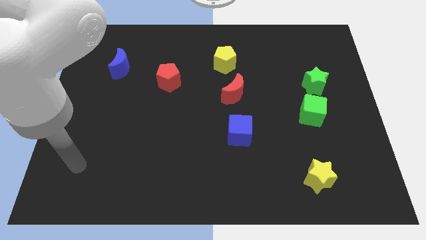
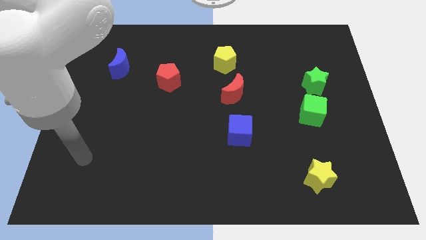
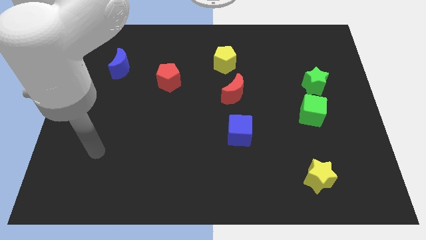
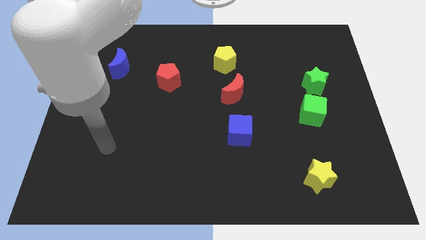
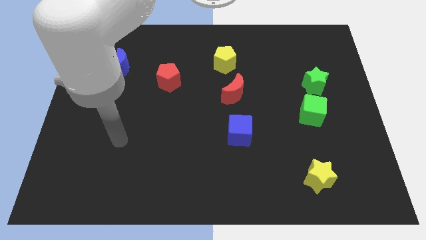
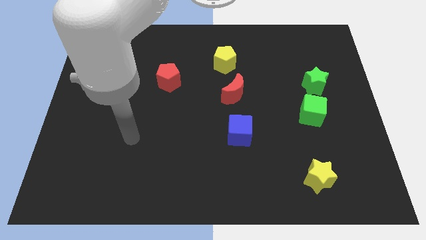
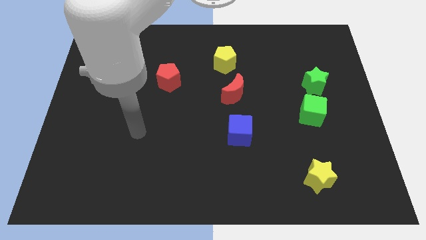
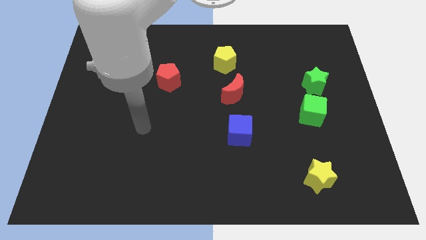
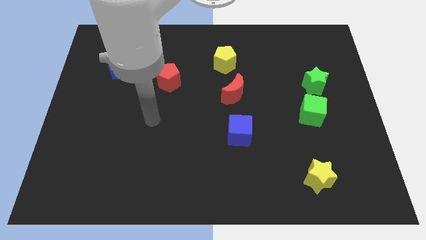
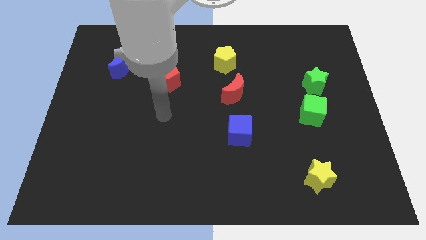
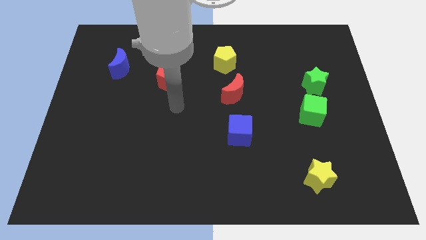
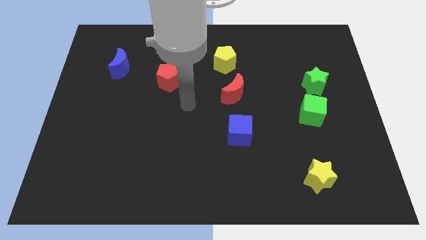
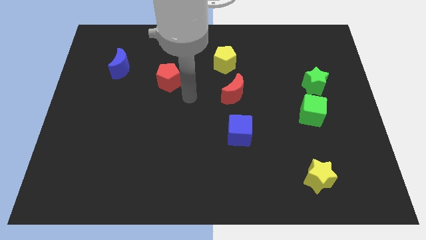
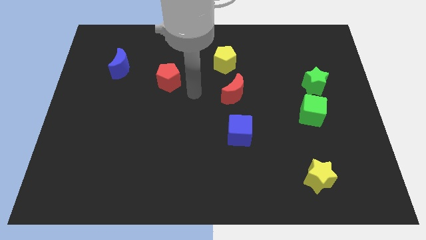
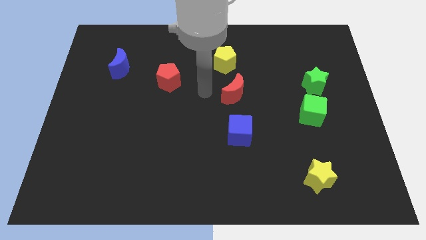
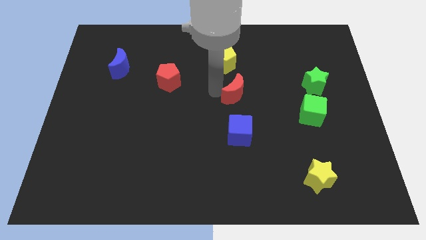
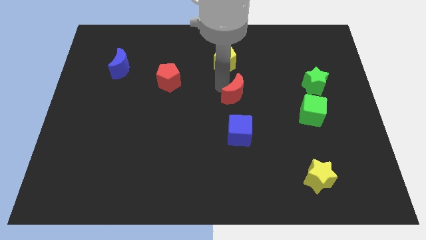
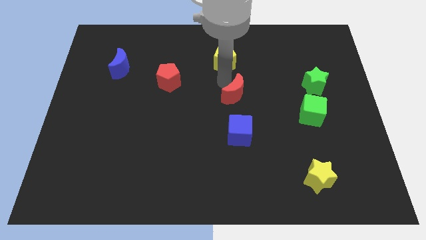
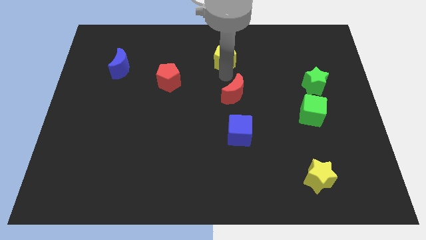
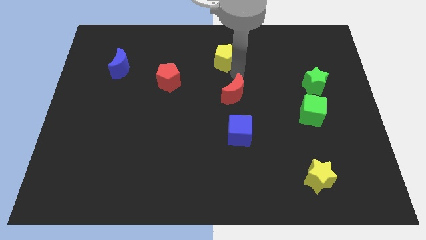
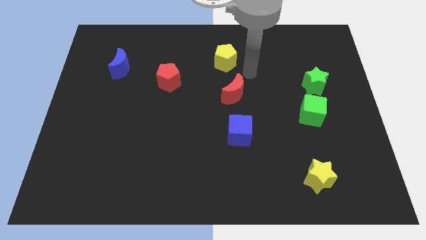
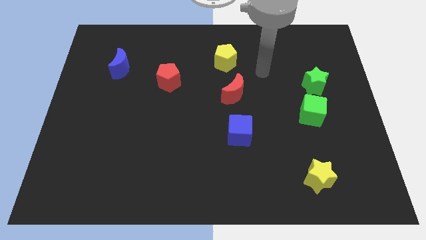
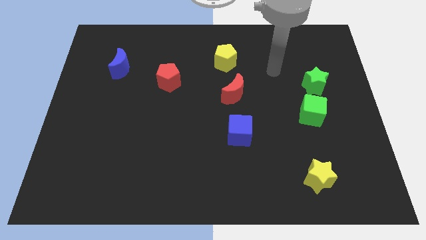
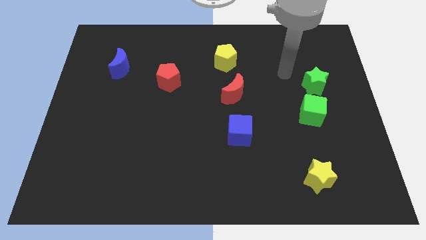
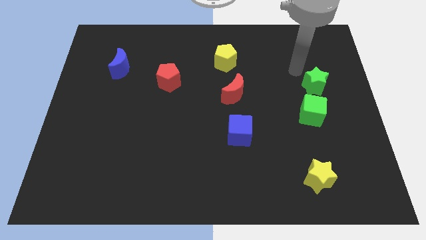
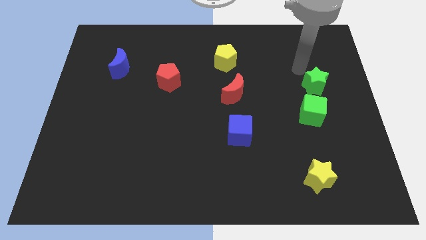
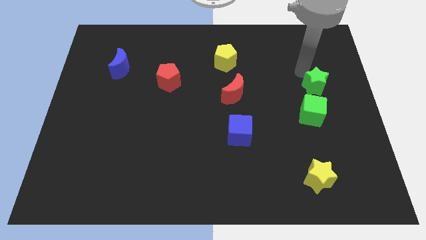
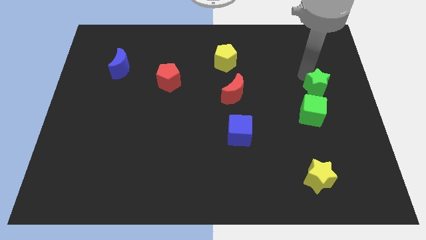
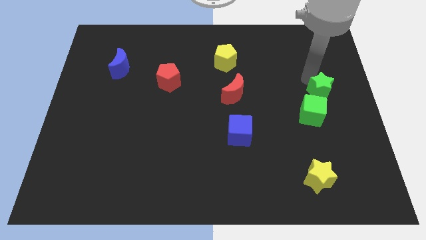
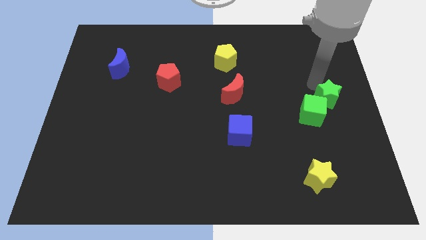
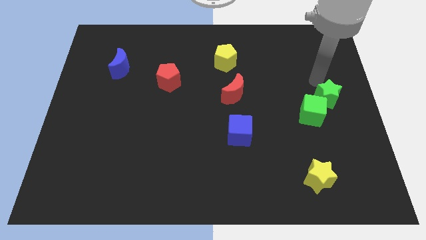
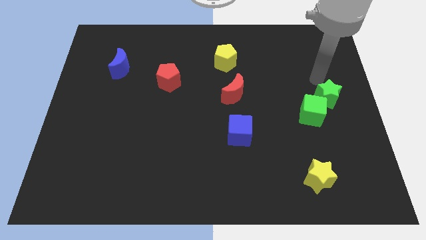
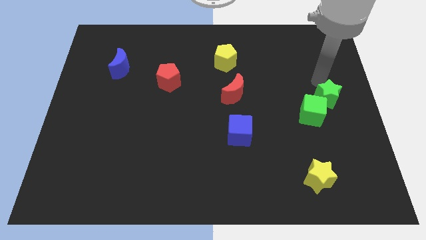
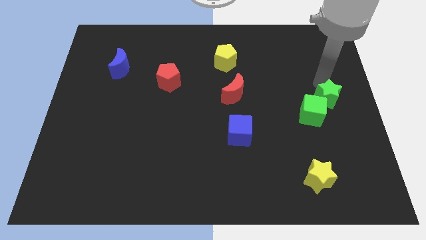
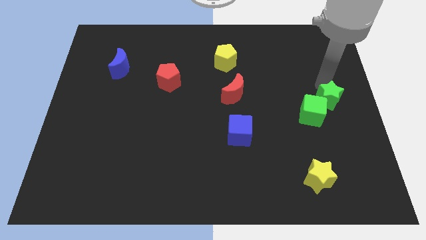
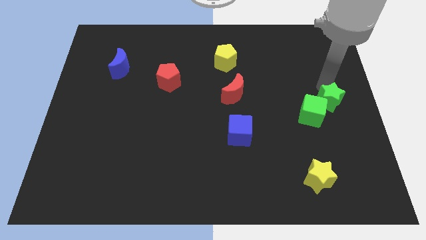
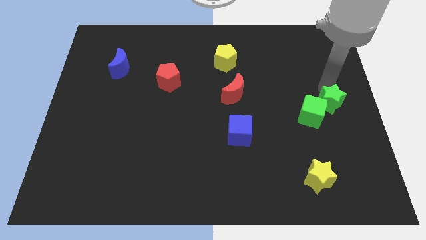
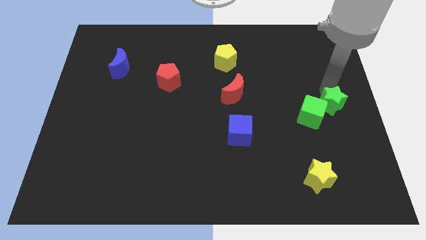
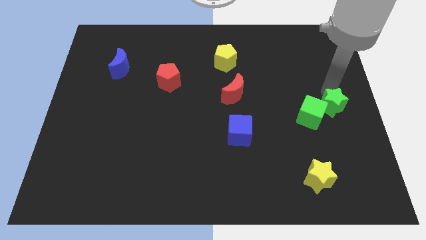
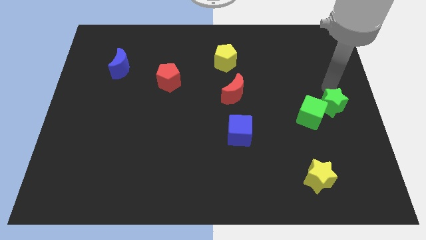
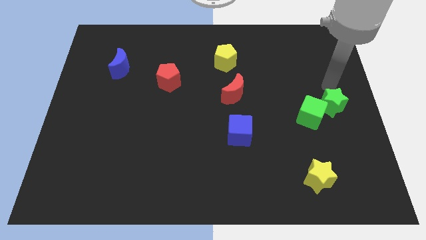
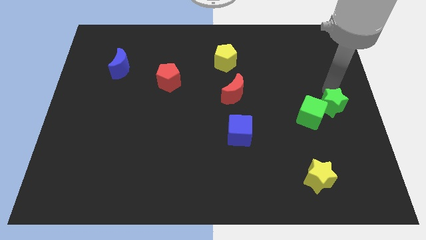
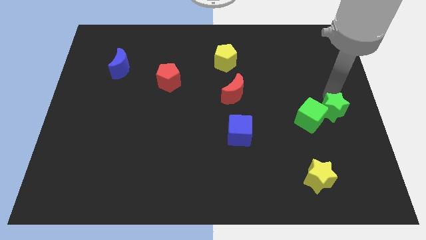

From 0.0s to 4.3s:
slightly slide the green star downwards

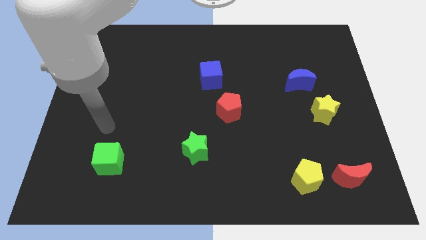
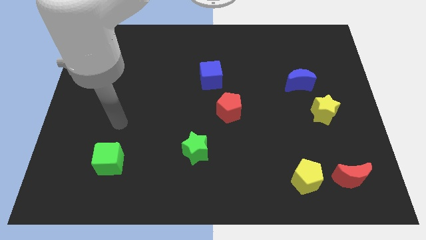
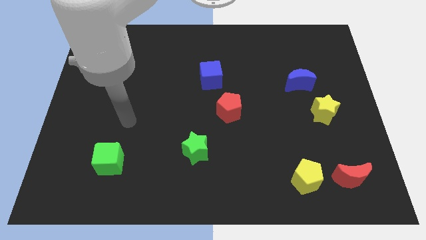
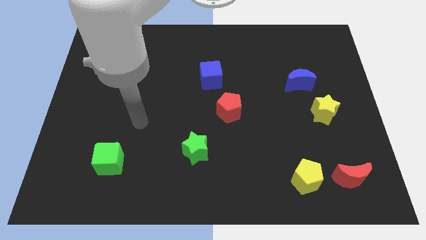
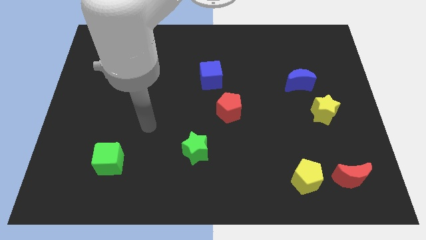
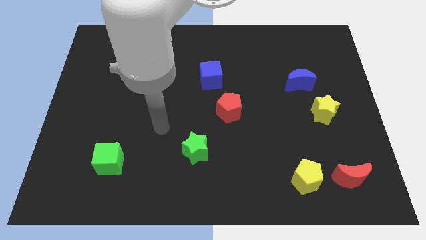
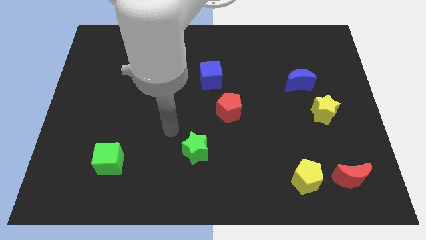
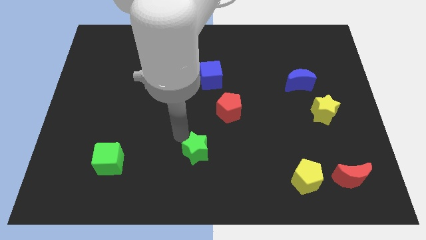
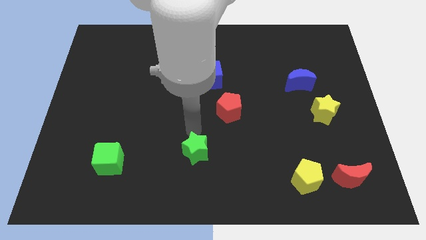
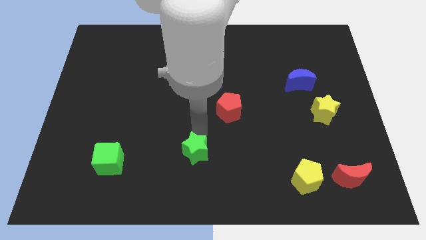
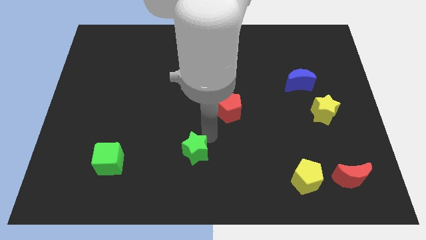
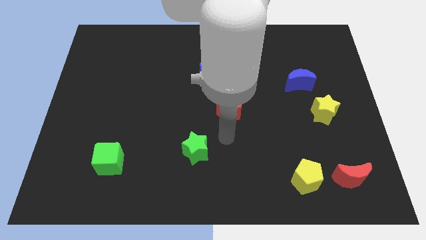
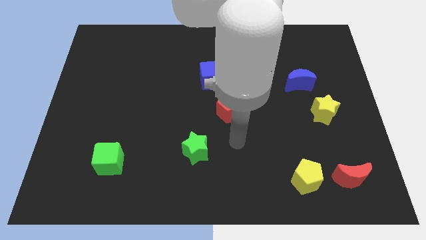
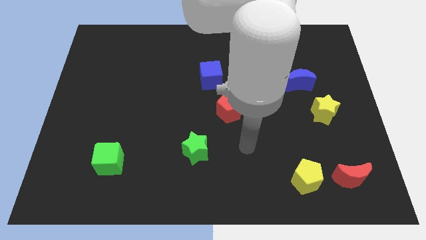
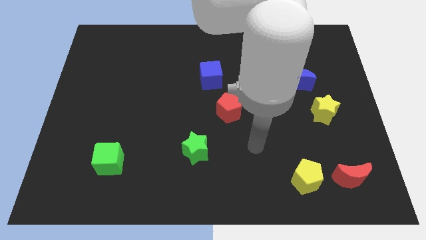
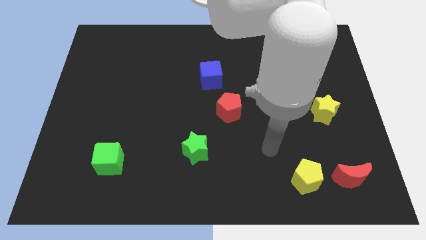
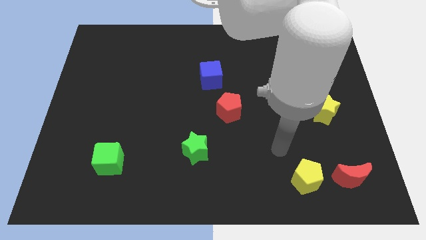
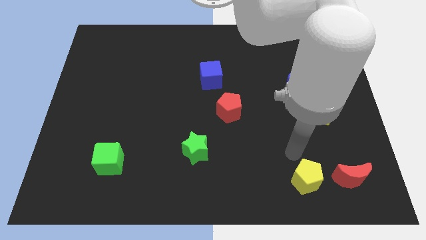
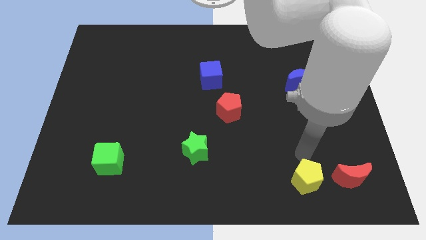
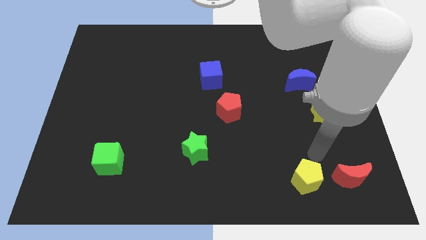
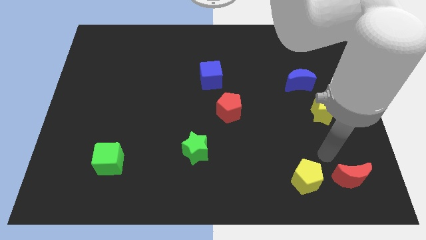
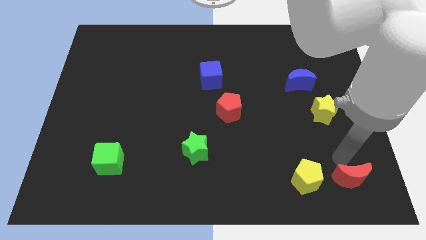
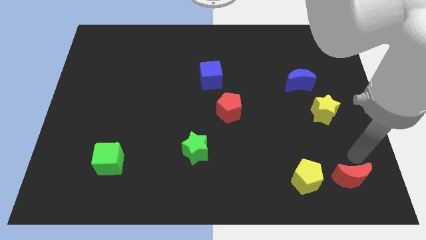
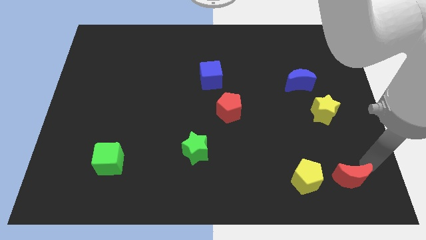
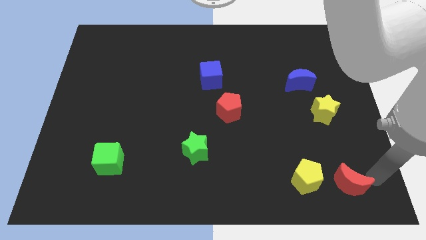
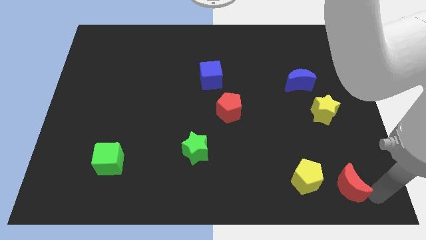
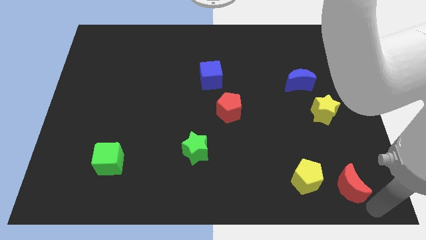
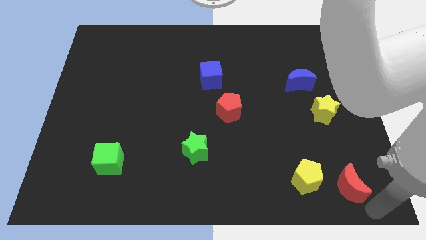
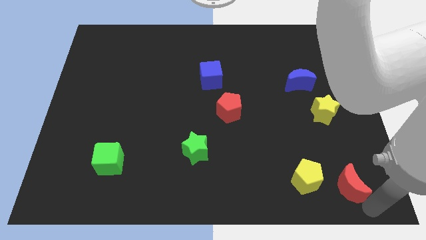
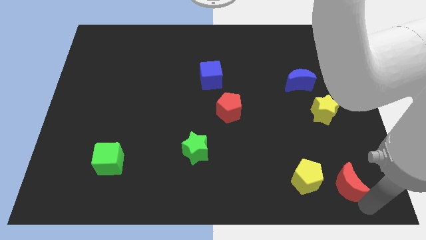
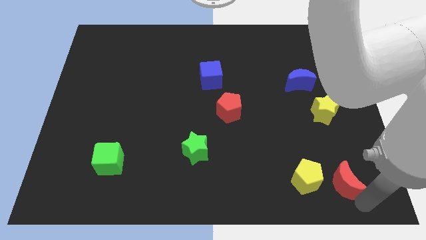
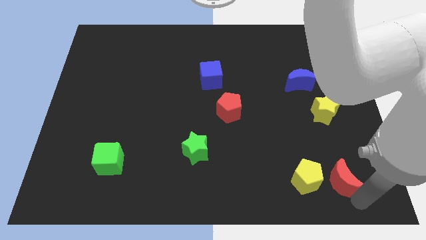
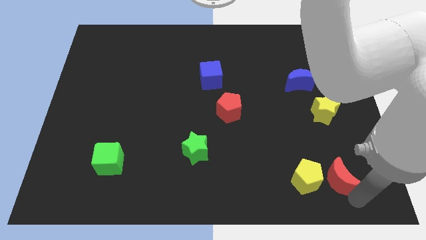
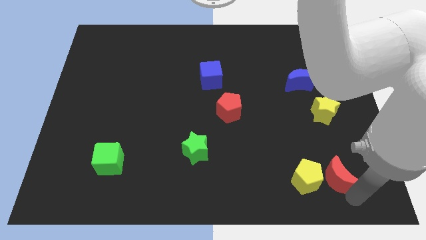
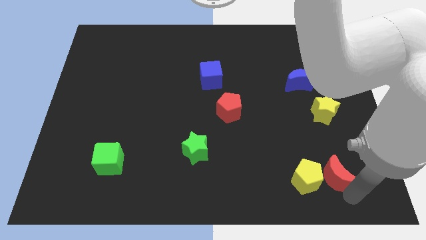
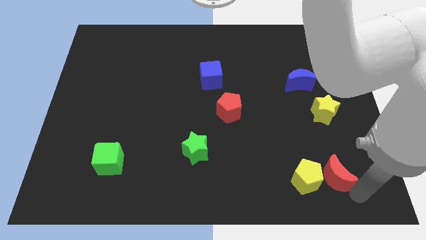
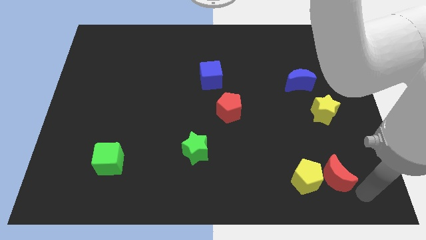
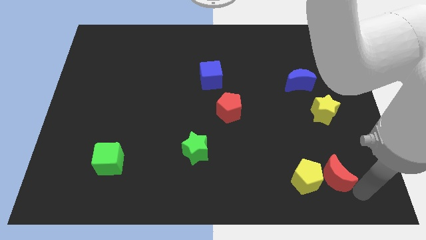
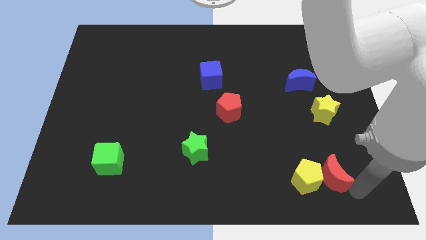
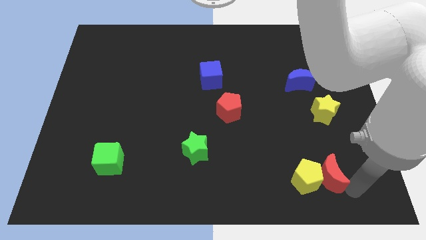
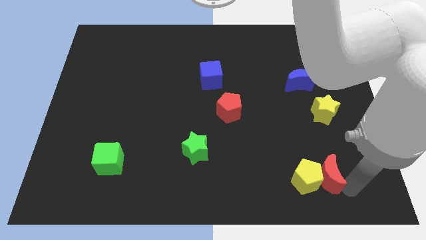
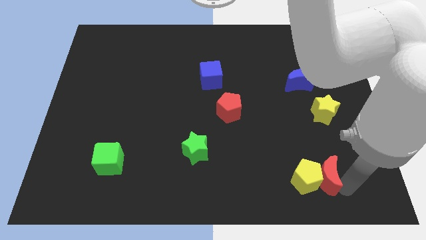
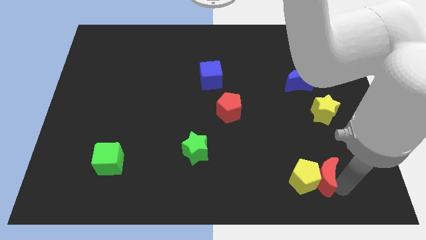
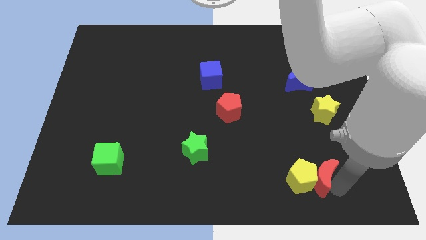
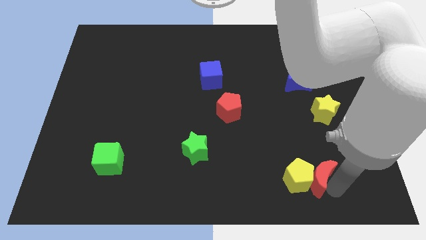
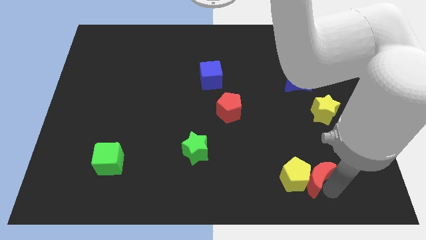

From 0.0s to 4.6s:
push the red moon a little bit to the left
